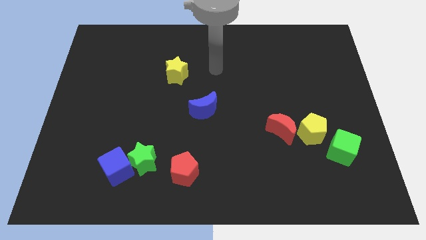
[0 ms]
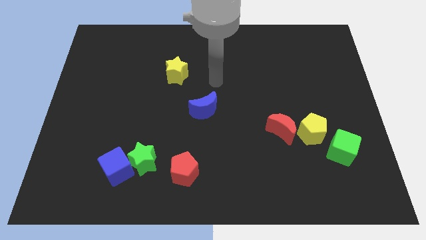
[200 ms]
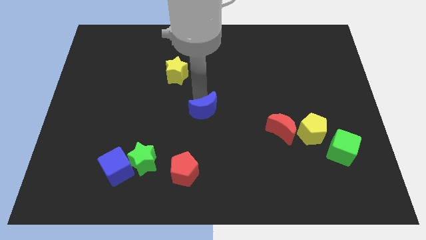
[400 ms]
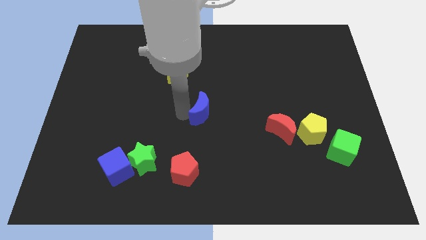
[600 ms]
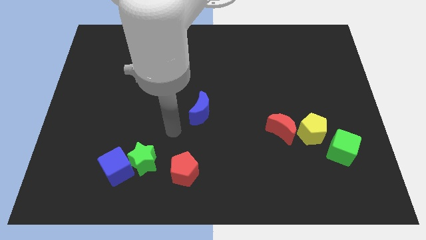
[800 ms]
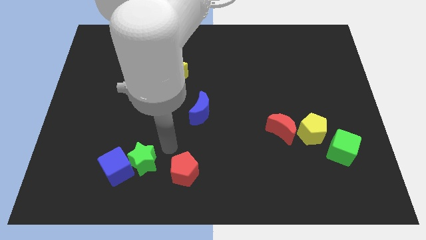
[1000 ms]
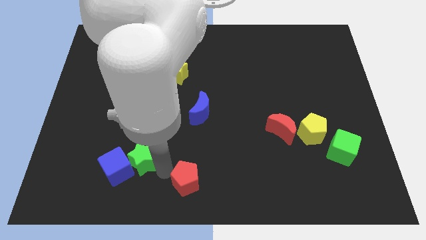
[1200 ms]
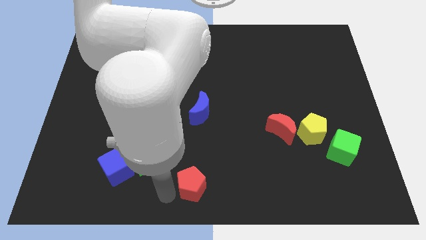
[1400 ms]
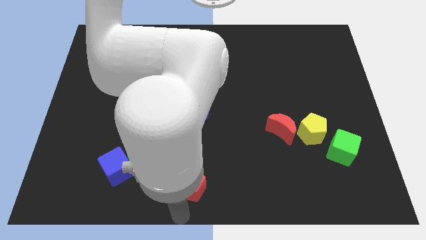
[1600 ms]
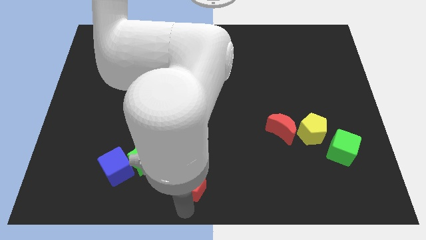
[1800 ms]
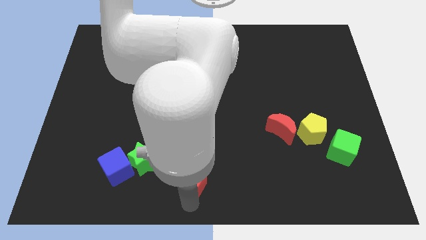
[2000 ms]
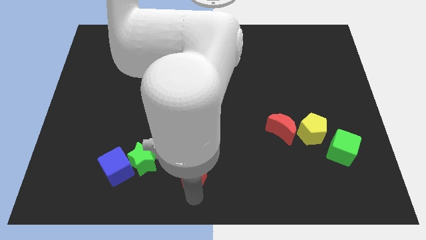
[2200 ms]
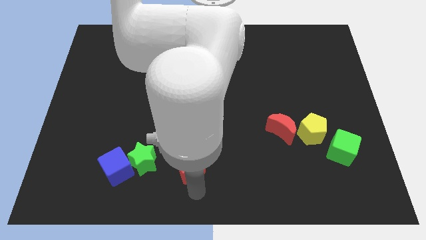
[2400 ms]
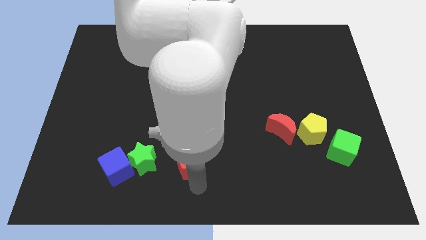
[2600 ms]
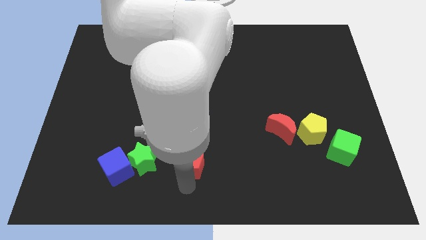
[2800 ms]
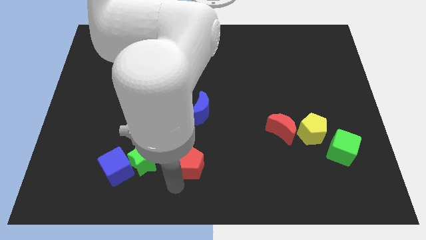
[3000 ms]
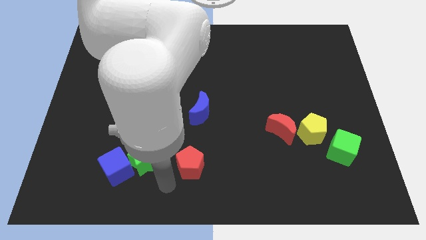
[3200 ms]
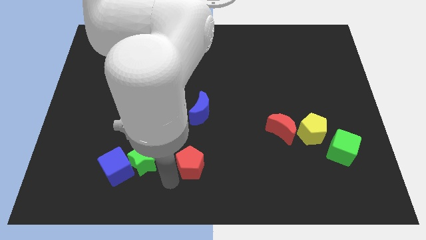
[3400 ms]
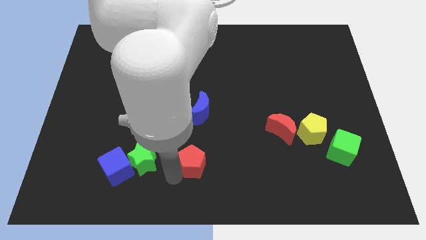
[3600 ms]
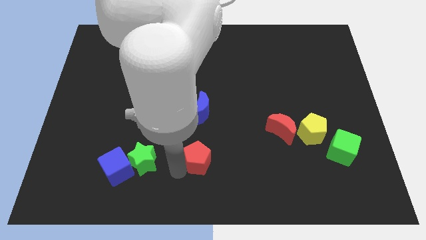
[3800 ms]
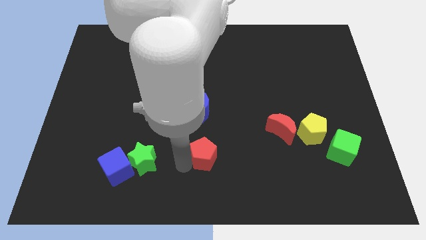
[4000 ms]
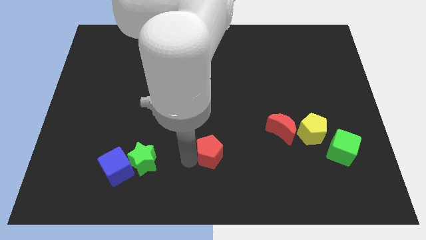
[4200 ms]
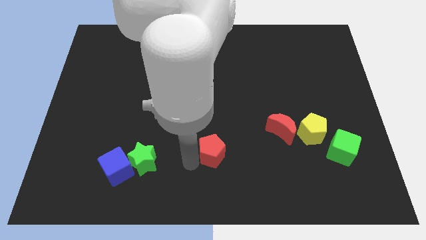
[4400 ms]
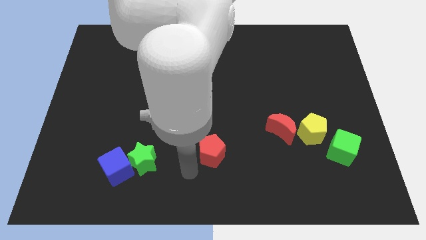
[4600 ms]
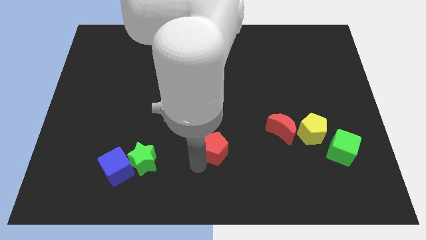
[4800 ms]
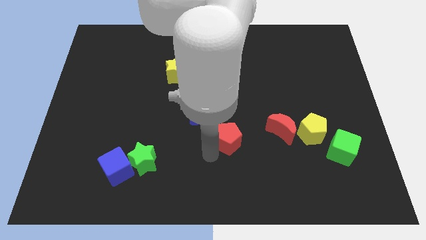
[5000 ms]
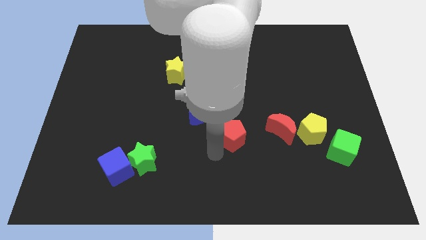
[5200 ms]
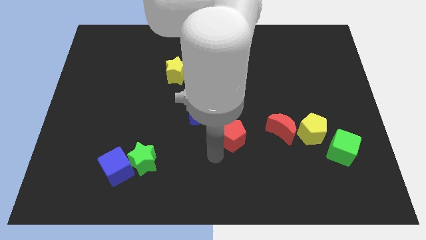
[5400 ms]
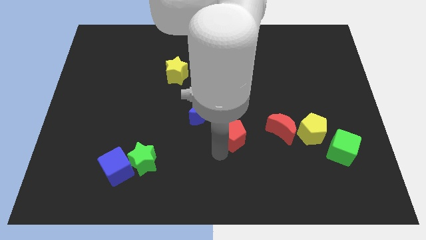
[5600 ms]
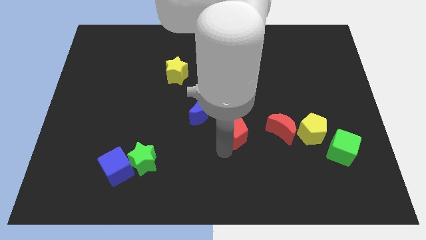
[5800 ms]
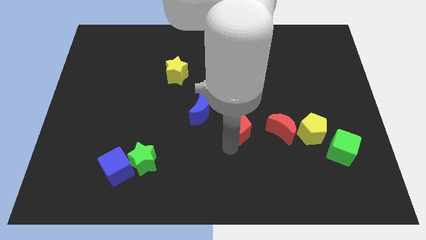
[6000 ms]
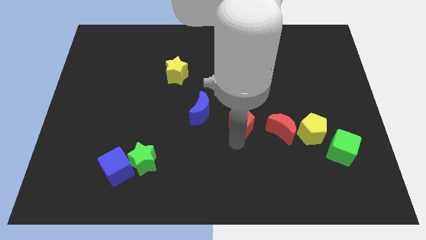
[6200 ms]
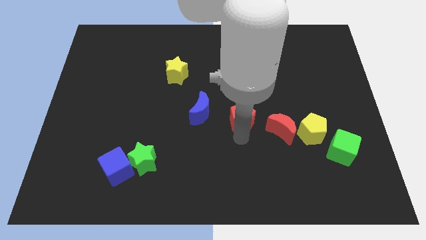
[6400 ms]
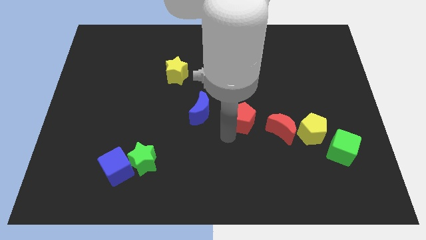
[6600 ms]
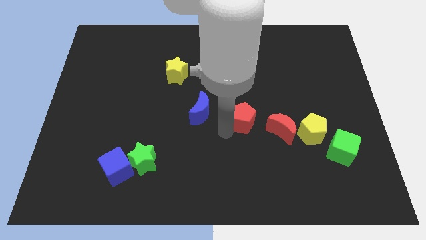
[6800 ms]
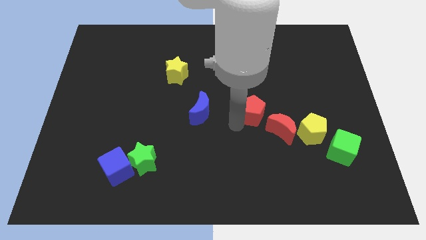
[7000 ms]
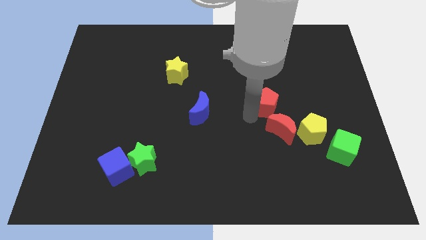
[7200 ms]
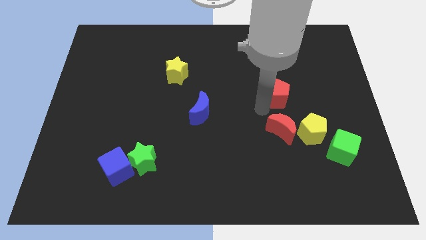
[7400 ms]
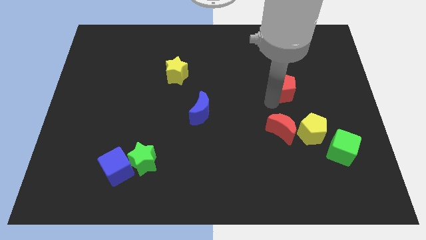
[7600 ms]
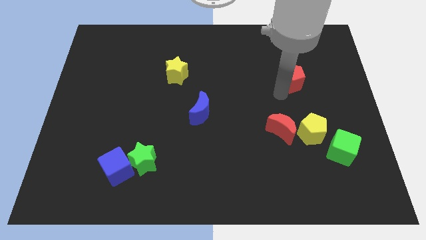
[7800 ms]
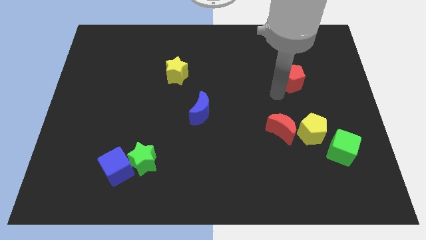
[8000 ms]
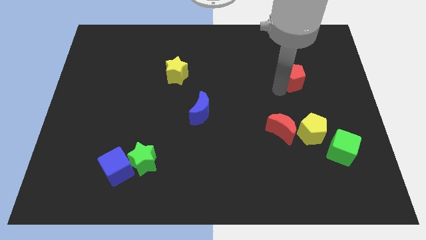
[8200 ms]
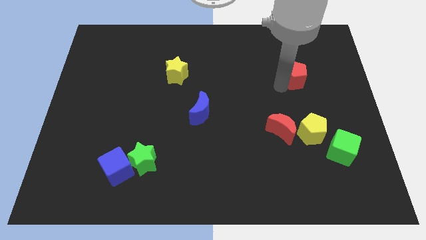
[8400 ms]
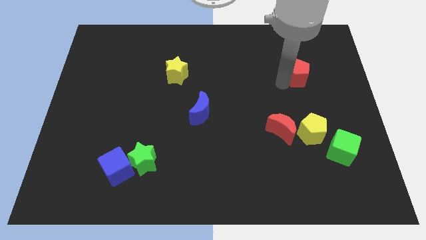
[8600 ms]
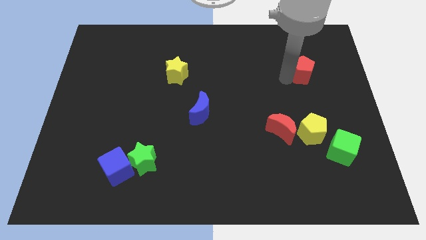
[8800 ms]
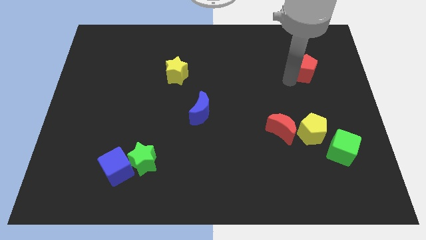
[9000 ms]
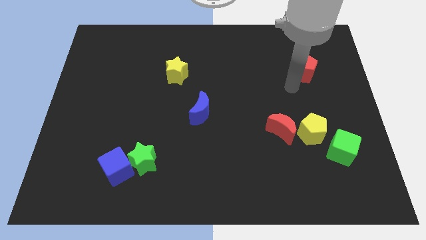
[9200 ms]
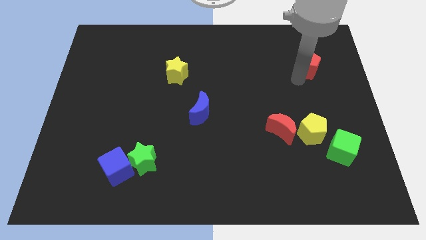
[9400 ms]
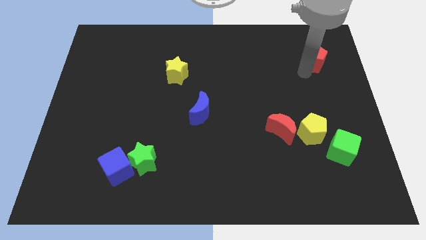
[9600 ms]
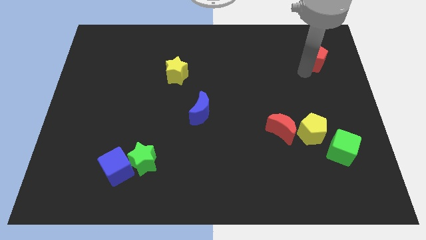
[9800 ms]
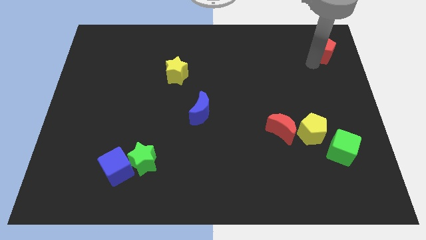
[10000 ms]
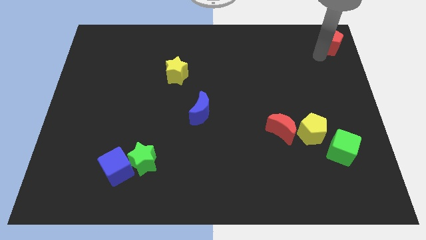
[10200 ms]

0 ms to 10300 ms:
put the red pentagon to the top right of the board

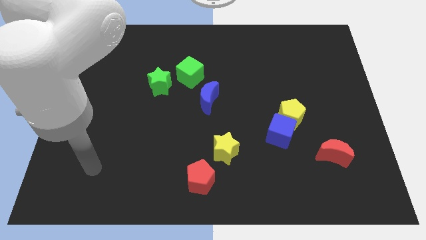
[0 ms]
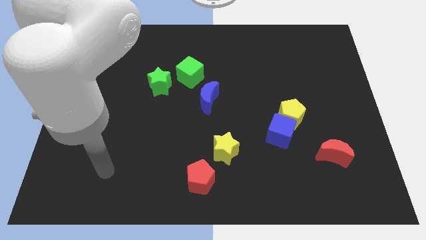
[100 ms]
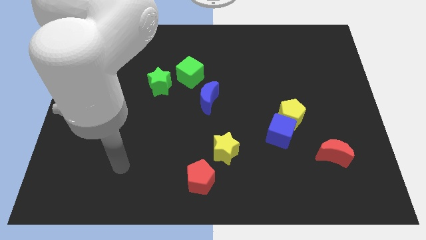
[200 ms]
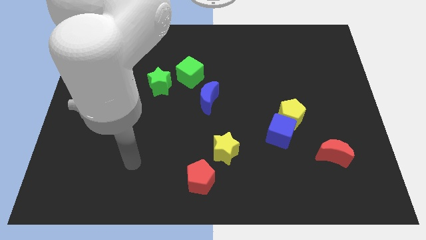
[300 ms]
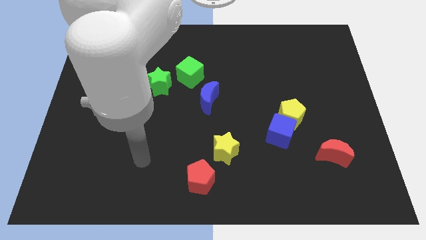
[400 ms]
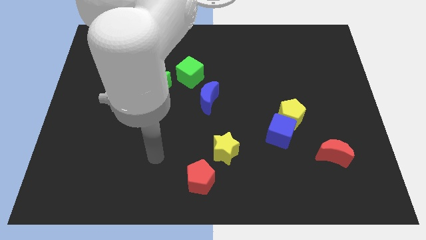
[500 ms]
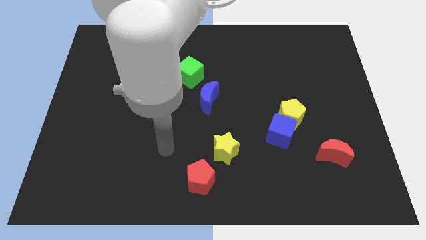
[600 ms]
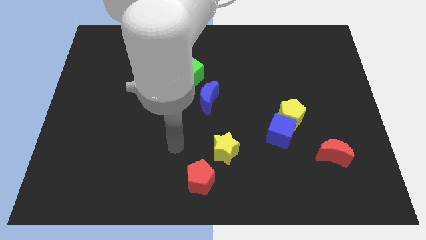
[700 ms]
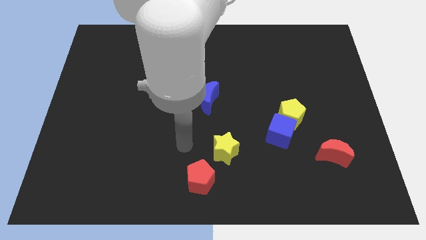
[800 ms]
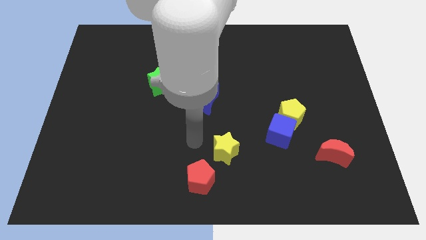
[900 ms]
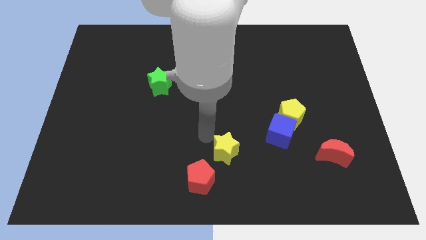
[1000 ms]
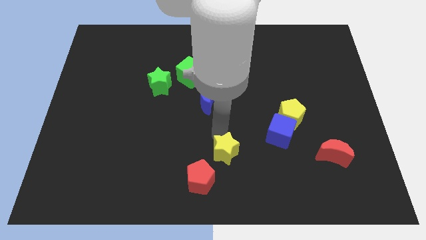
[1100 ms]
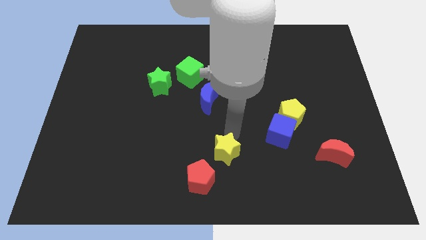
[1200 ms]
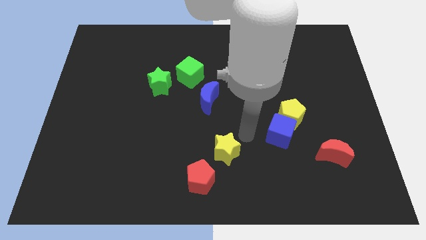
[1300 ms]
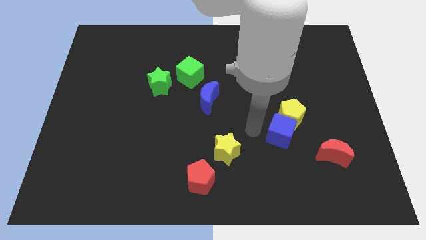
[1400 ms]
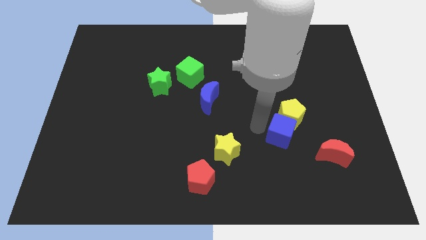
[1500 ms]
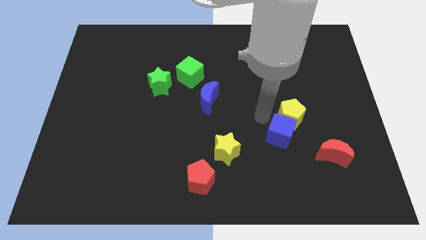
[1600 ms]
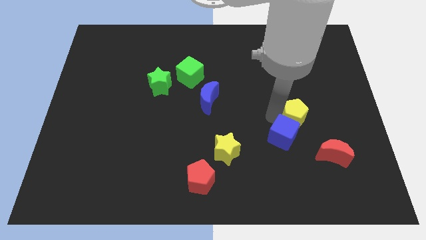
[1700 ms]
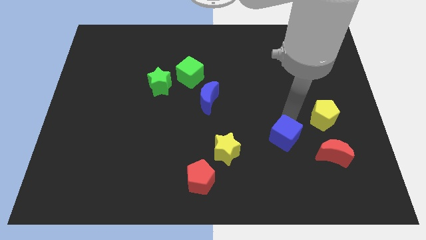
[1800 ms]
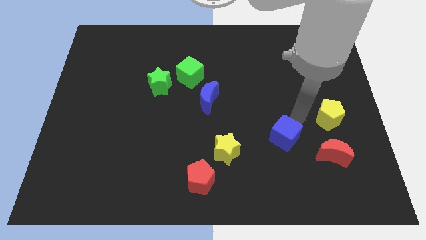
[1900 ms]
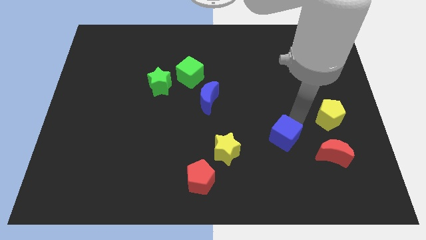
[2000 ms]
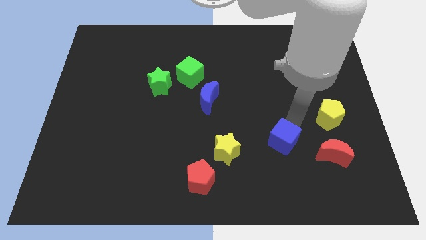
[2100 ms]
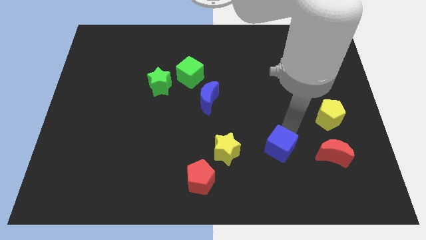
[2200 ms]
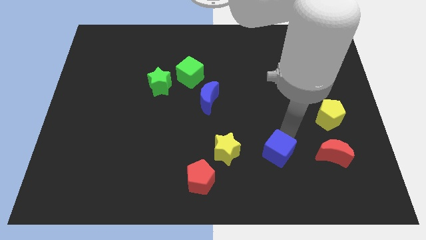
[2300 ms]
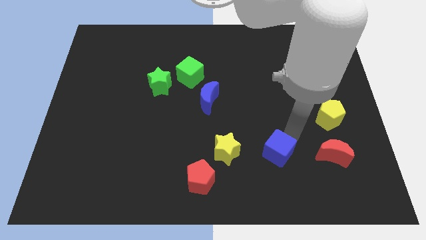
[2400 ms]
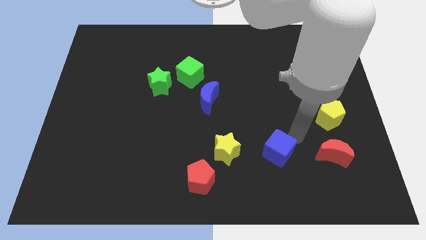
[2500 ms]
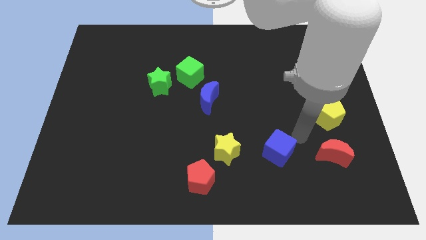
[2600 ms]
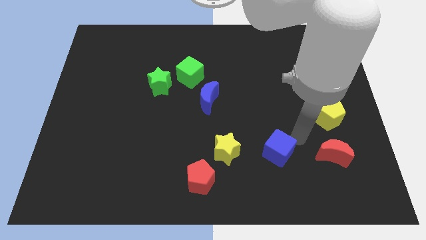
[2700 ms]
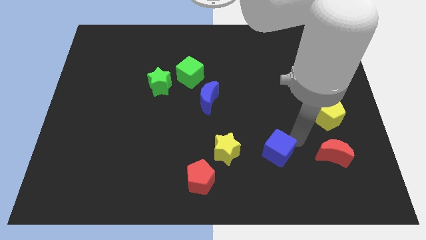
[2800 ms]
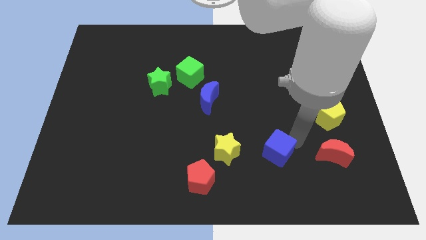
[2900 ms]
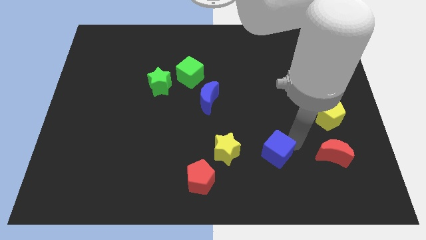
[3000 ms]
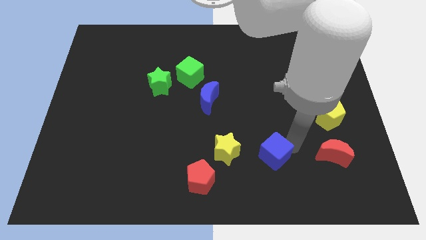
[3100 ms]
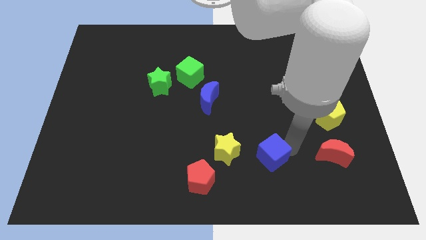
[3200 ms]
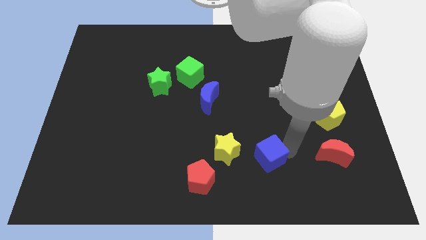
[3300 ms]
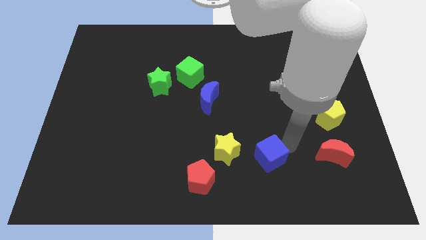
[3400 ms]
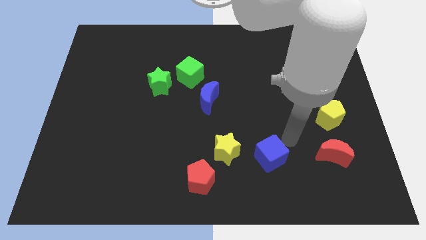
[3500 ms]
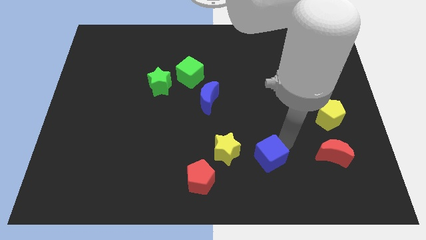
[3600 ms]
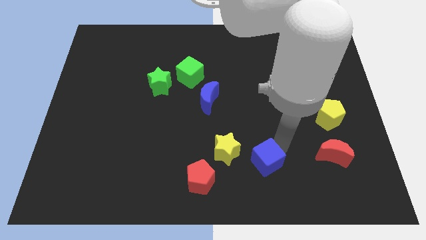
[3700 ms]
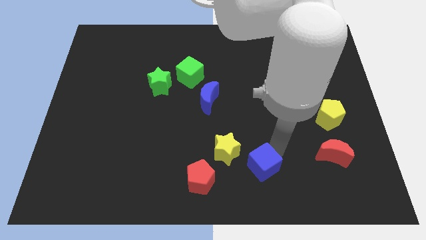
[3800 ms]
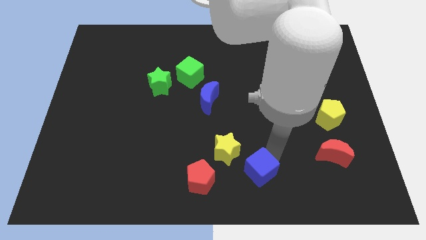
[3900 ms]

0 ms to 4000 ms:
move the blue cube to the bottom side
